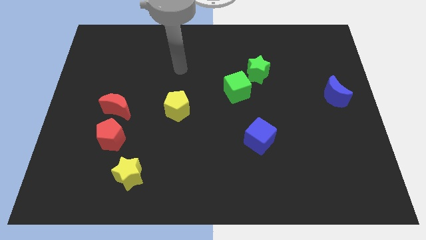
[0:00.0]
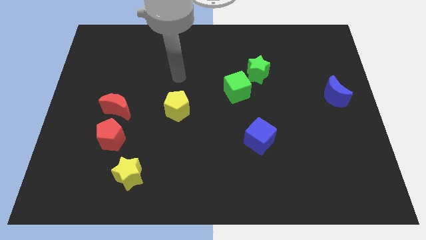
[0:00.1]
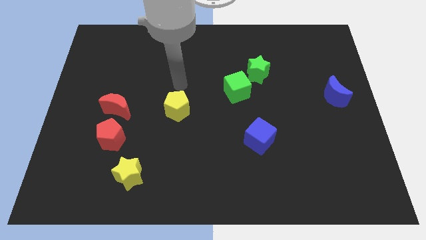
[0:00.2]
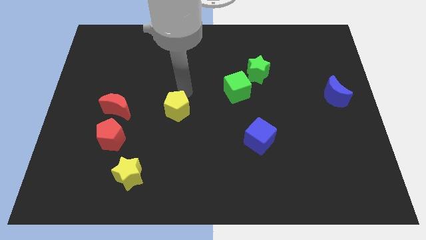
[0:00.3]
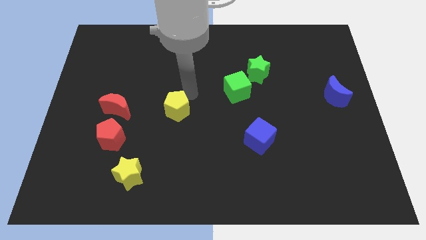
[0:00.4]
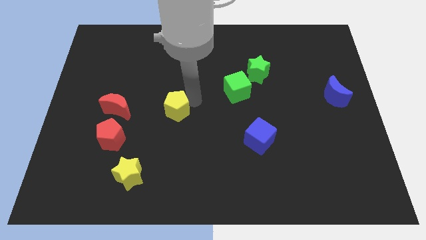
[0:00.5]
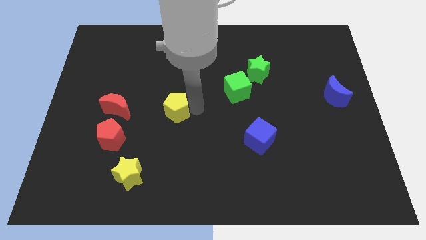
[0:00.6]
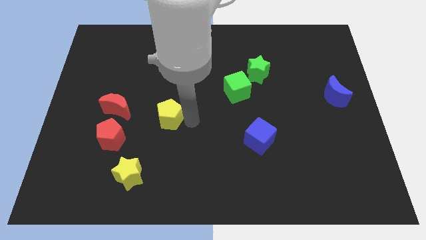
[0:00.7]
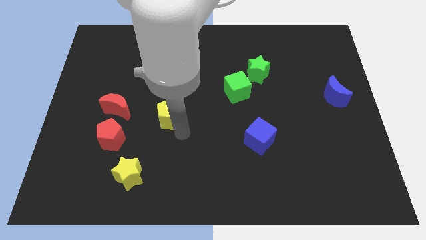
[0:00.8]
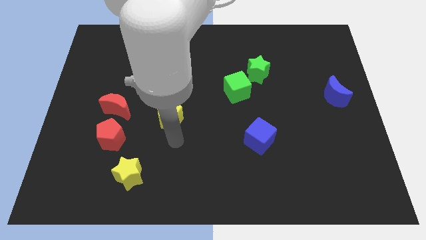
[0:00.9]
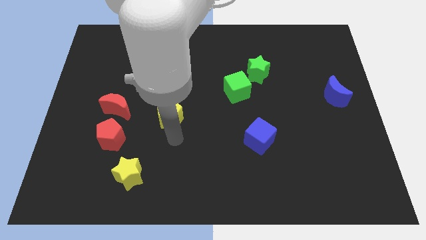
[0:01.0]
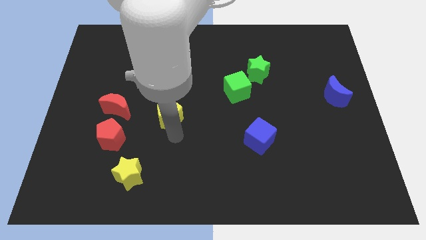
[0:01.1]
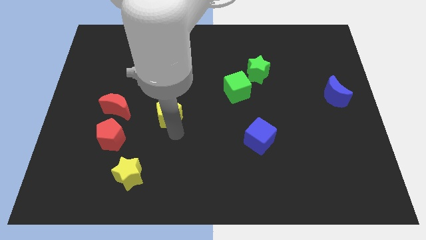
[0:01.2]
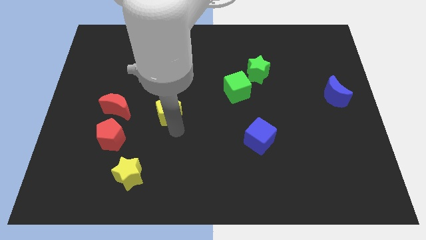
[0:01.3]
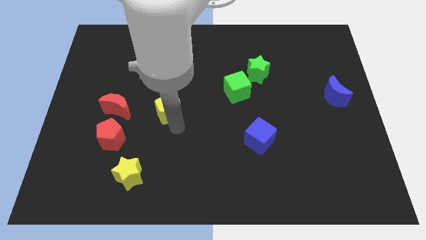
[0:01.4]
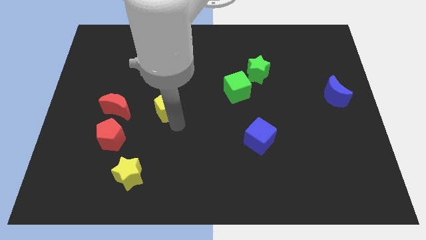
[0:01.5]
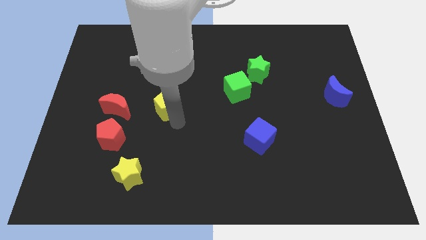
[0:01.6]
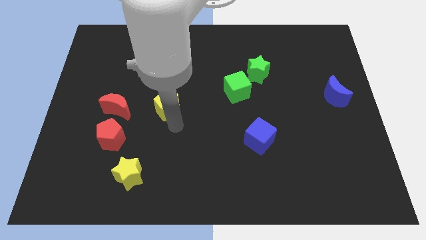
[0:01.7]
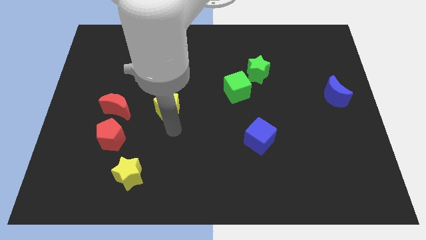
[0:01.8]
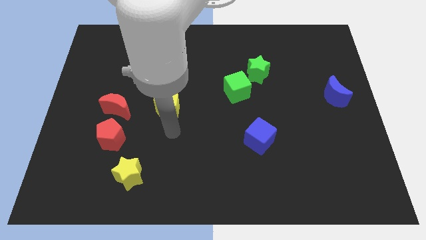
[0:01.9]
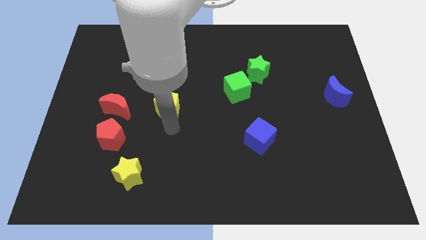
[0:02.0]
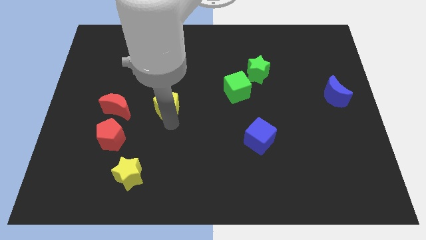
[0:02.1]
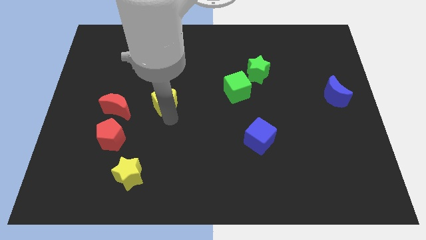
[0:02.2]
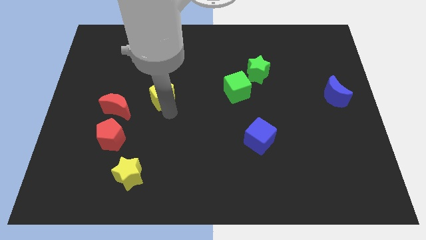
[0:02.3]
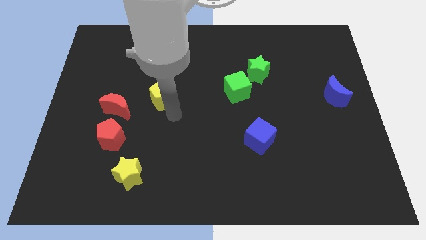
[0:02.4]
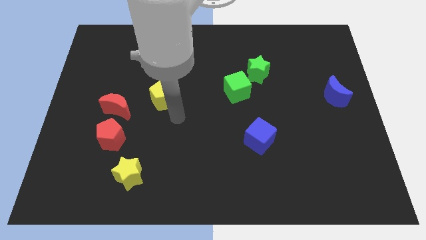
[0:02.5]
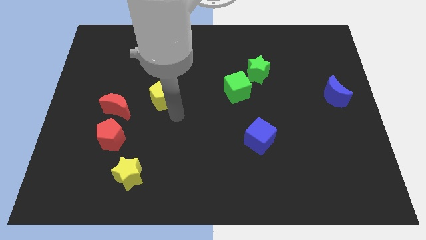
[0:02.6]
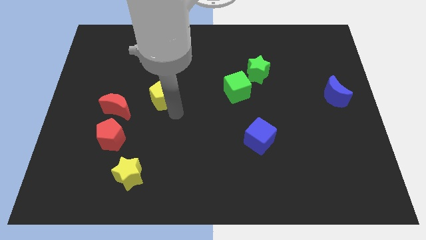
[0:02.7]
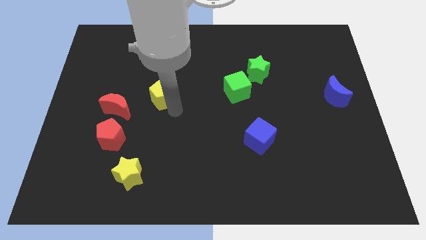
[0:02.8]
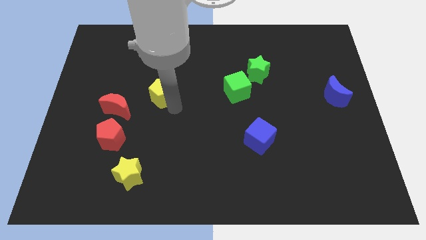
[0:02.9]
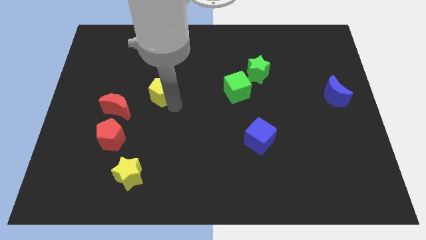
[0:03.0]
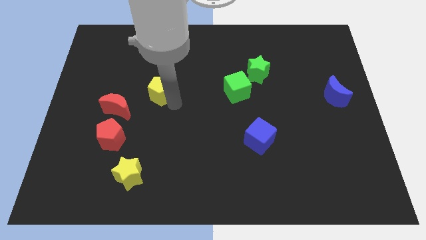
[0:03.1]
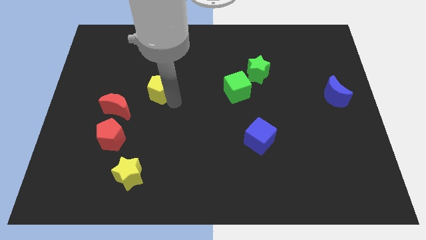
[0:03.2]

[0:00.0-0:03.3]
slide the yellow pentagon a bit up and then left

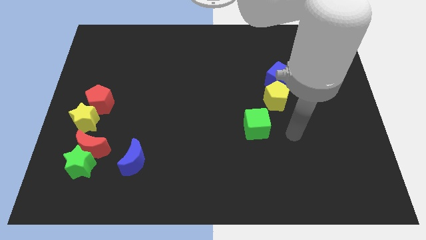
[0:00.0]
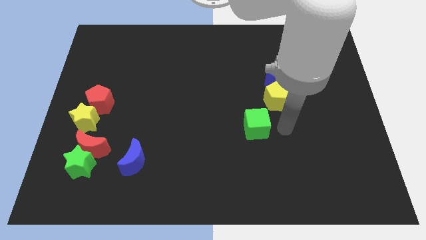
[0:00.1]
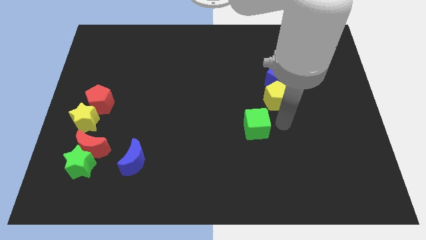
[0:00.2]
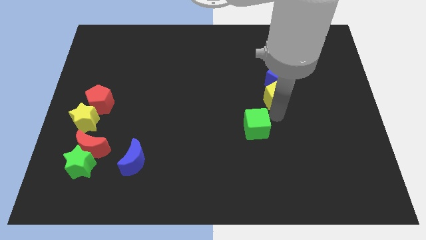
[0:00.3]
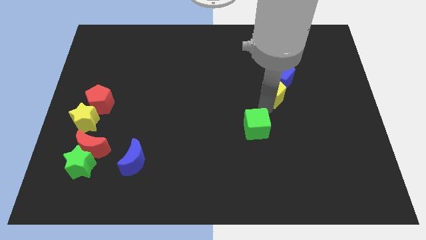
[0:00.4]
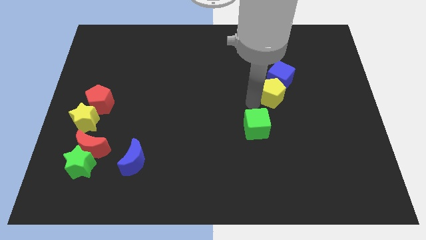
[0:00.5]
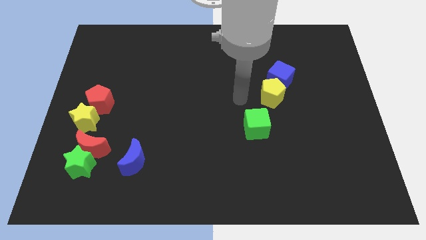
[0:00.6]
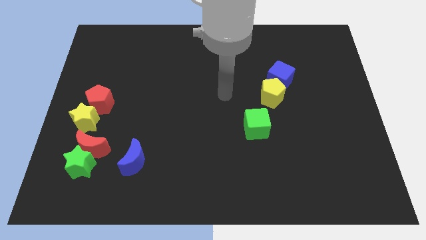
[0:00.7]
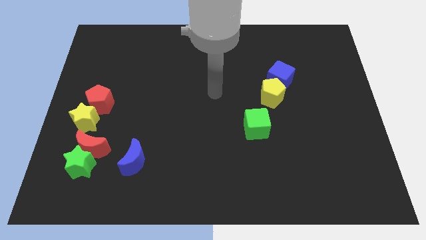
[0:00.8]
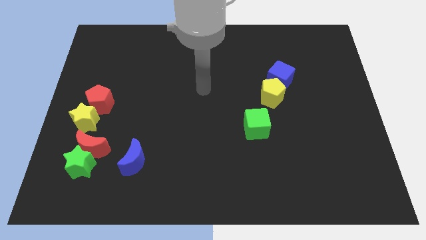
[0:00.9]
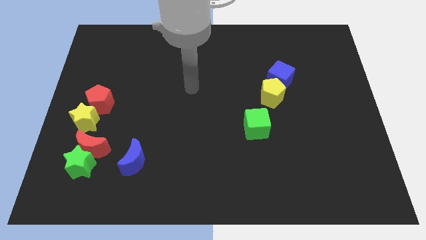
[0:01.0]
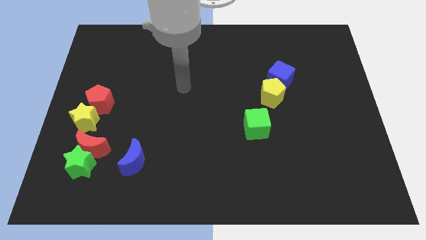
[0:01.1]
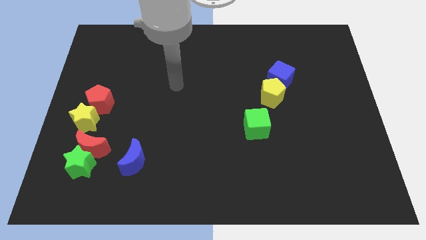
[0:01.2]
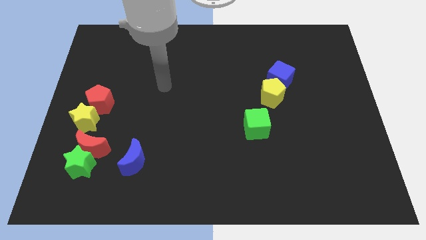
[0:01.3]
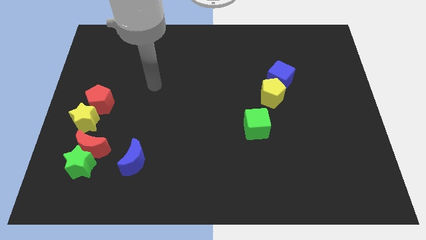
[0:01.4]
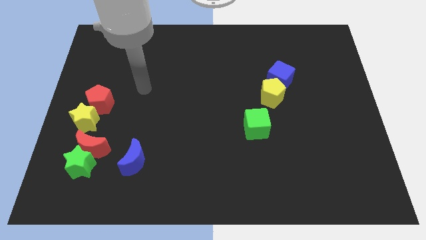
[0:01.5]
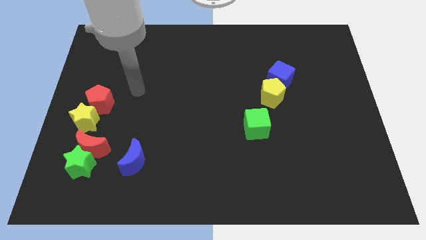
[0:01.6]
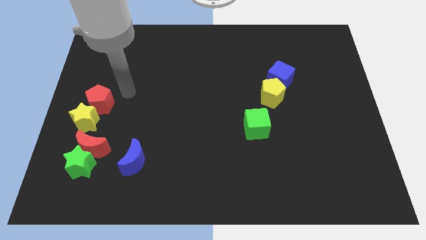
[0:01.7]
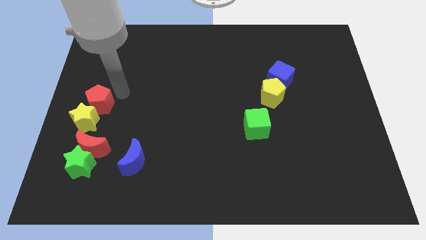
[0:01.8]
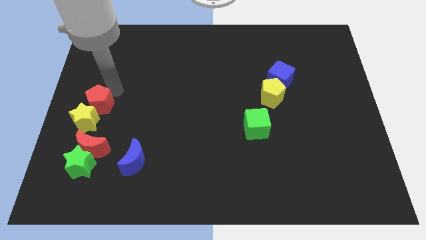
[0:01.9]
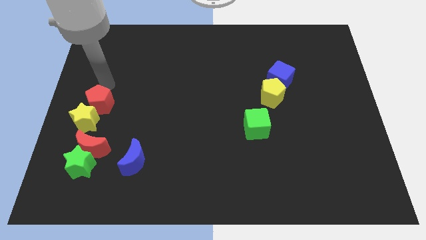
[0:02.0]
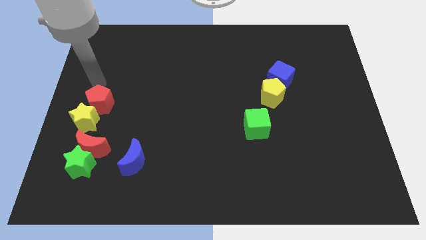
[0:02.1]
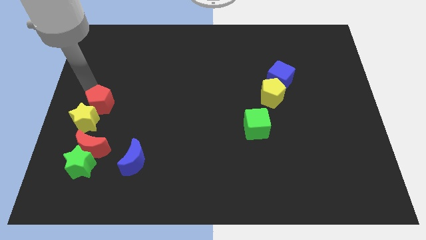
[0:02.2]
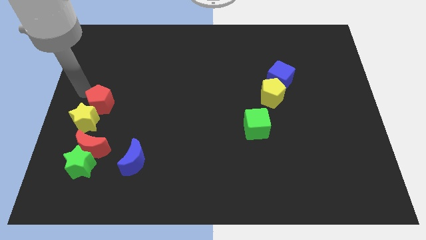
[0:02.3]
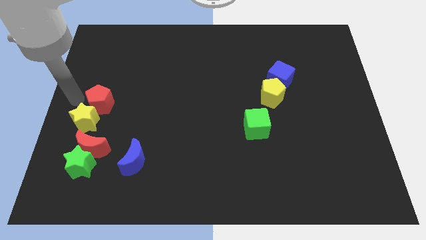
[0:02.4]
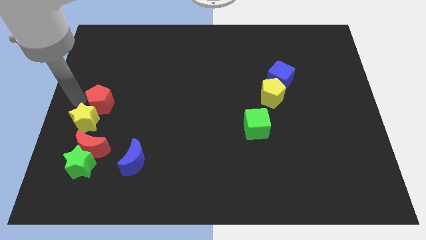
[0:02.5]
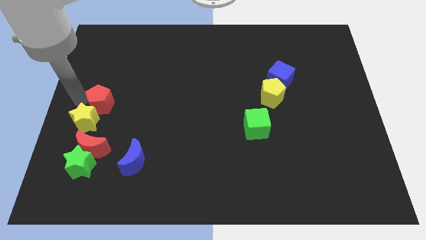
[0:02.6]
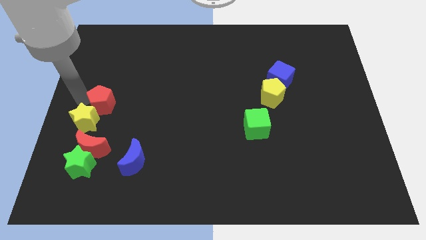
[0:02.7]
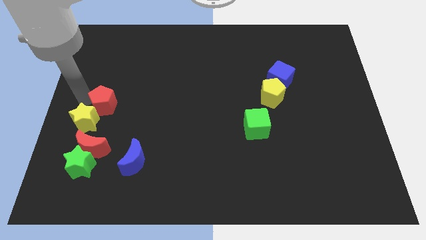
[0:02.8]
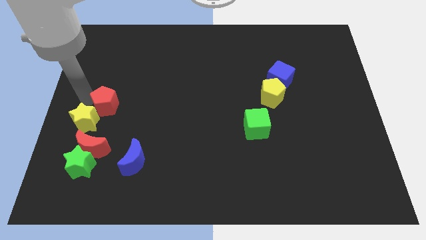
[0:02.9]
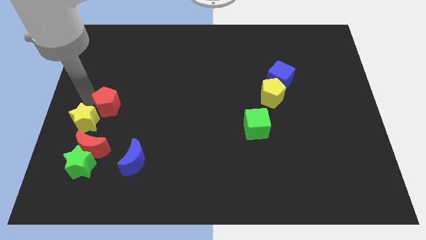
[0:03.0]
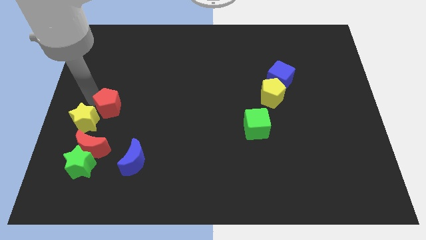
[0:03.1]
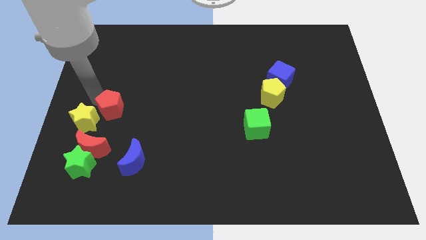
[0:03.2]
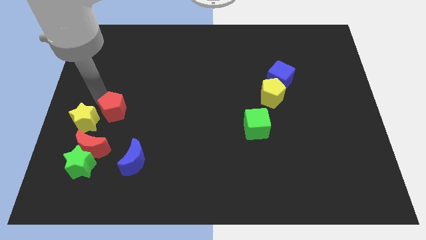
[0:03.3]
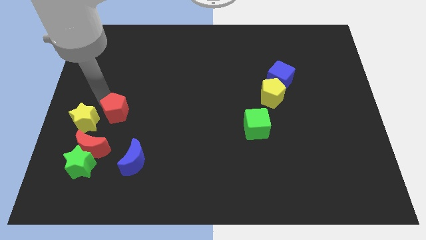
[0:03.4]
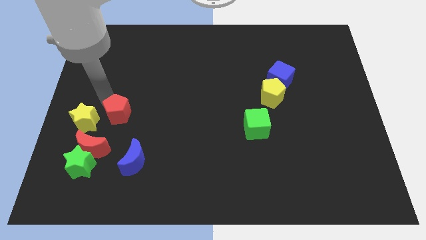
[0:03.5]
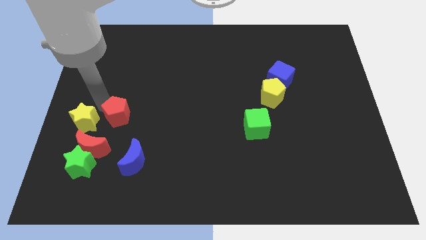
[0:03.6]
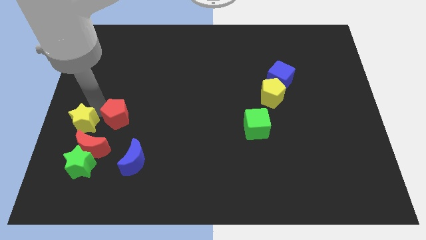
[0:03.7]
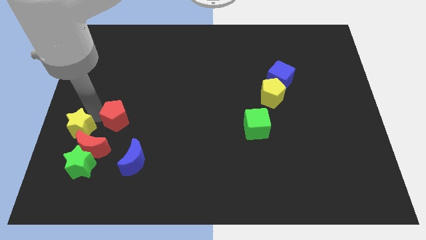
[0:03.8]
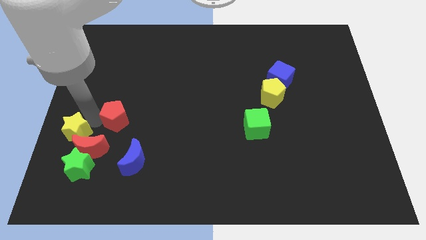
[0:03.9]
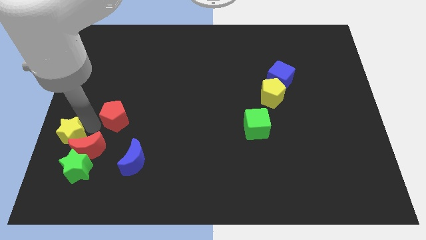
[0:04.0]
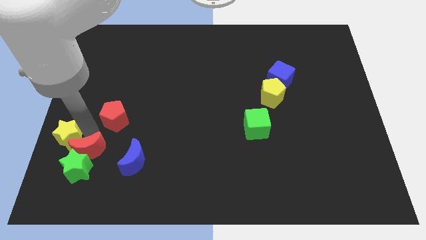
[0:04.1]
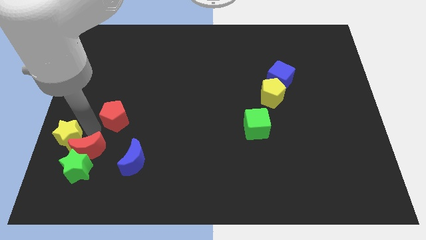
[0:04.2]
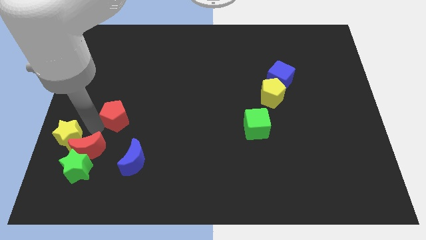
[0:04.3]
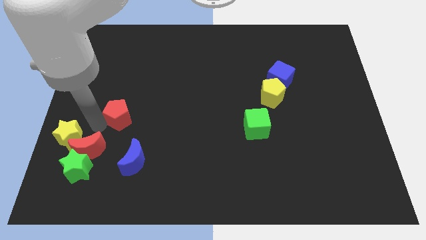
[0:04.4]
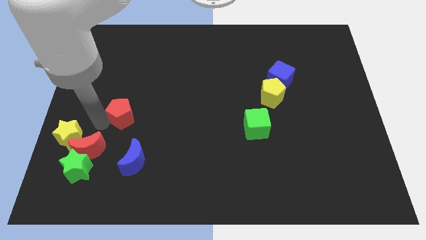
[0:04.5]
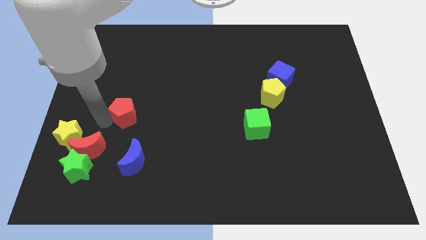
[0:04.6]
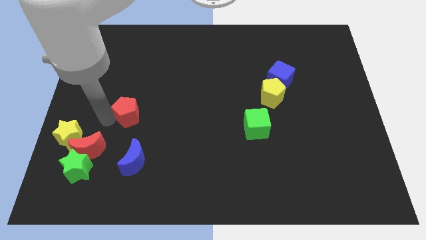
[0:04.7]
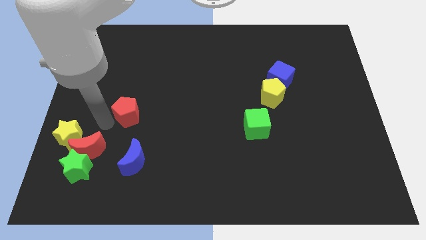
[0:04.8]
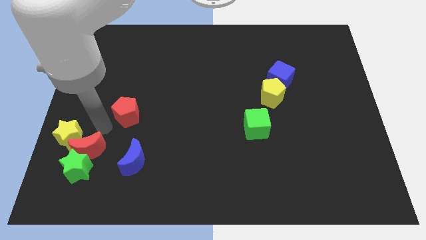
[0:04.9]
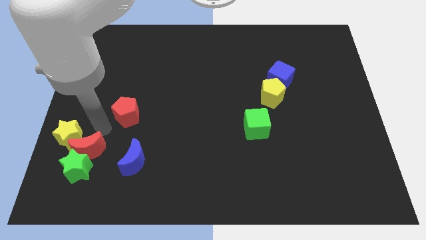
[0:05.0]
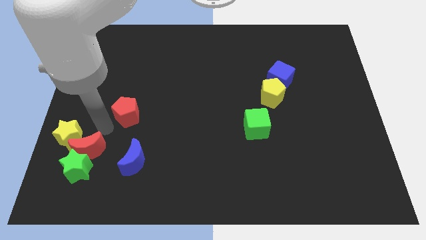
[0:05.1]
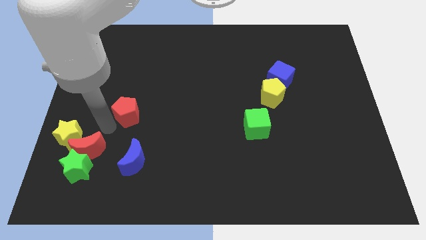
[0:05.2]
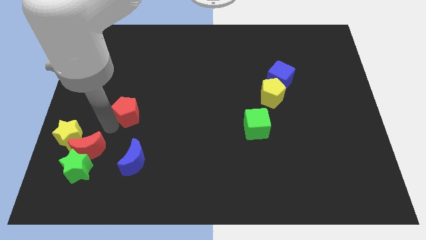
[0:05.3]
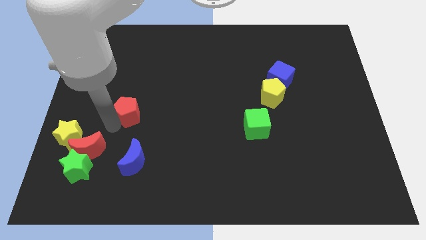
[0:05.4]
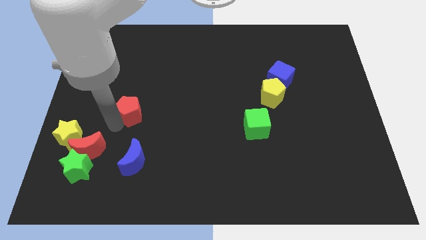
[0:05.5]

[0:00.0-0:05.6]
move the red pentagon a bit to the right
